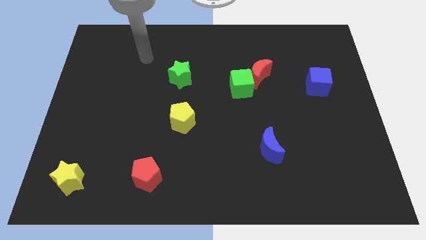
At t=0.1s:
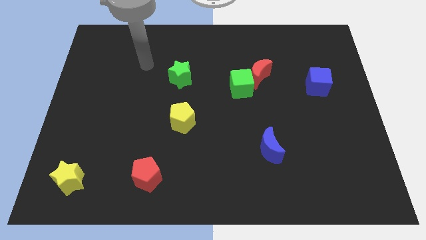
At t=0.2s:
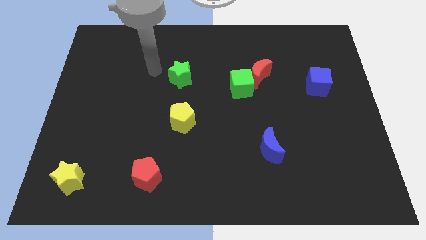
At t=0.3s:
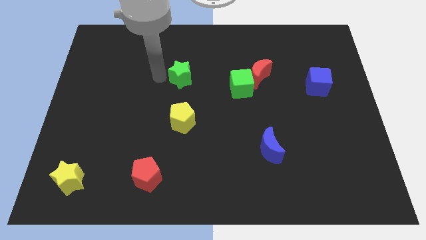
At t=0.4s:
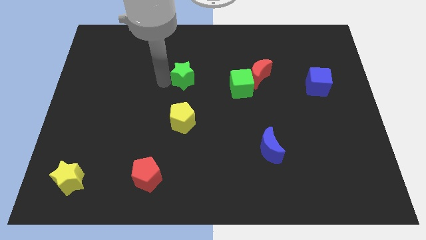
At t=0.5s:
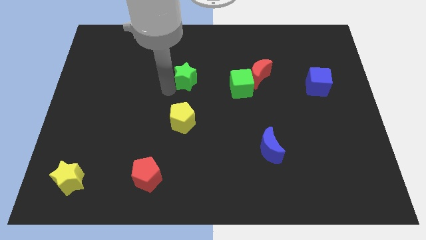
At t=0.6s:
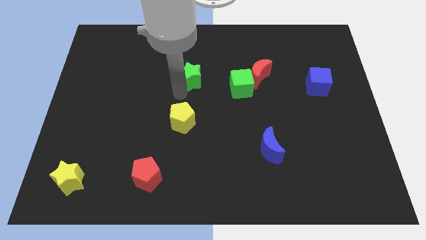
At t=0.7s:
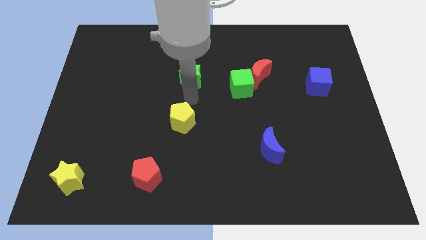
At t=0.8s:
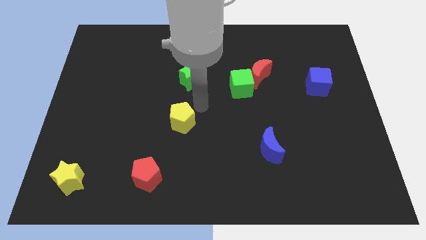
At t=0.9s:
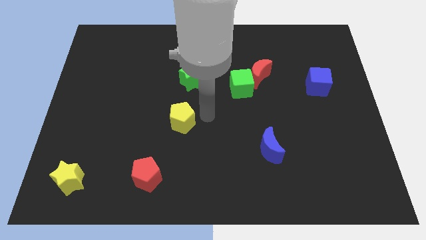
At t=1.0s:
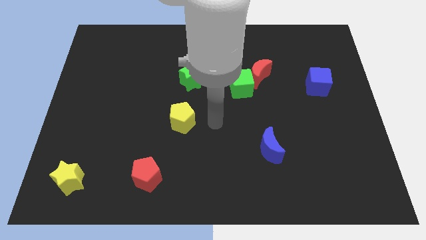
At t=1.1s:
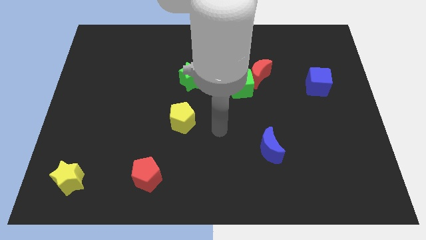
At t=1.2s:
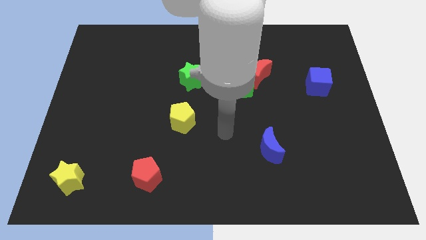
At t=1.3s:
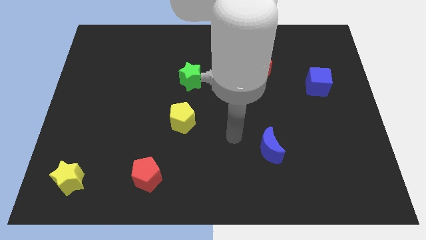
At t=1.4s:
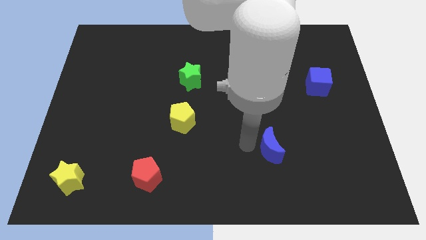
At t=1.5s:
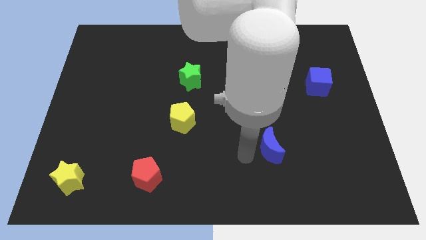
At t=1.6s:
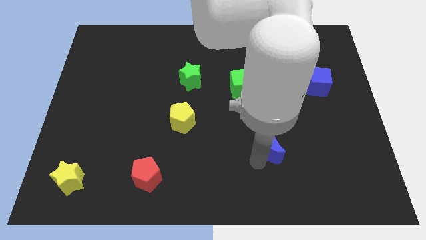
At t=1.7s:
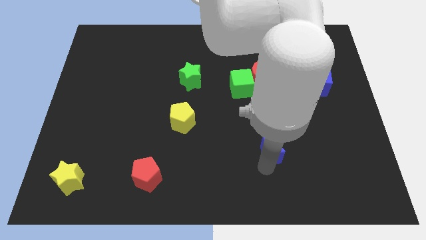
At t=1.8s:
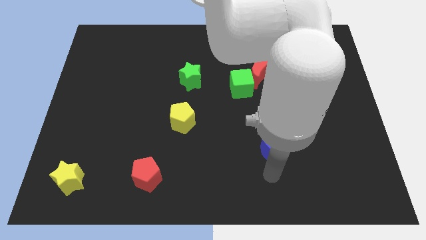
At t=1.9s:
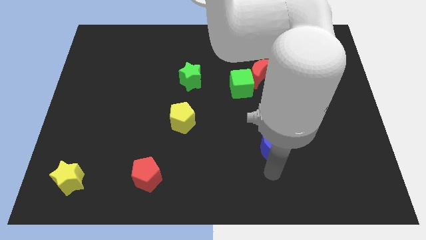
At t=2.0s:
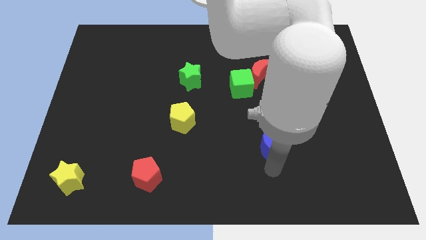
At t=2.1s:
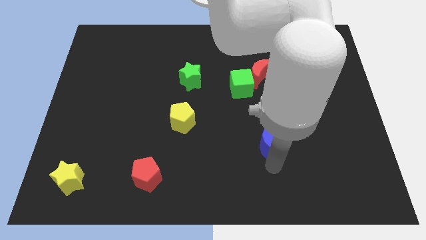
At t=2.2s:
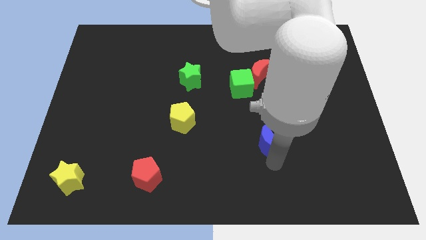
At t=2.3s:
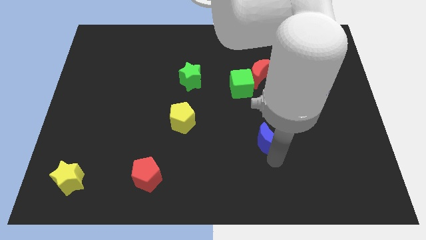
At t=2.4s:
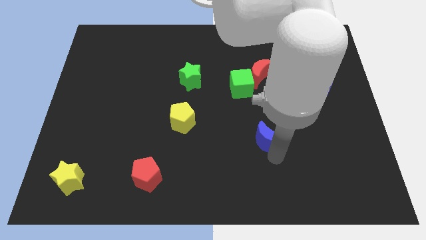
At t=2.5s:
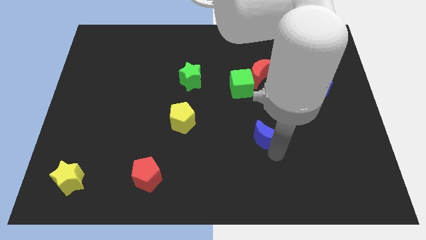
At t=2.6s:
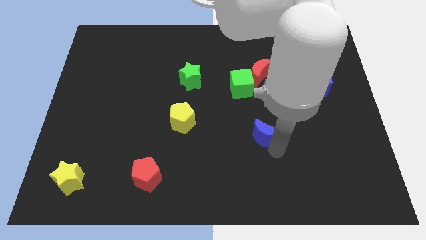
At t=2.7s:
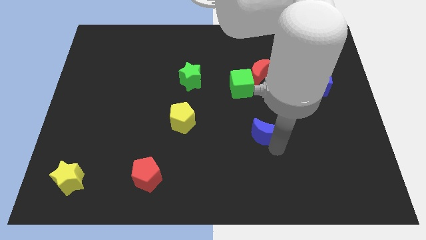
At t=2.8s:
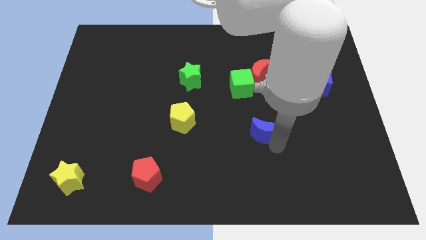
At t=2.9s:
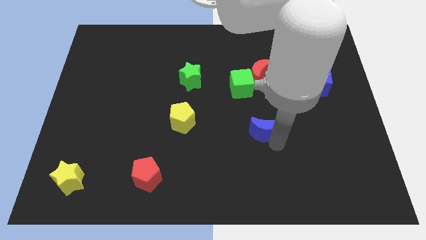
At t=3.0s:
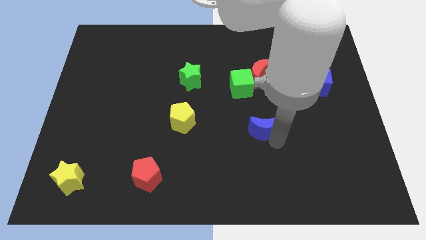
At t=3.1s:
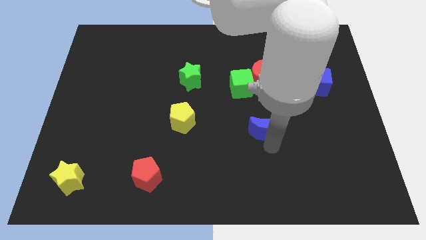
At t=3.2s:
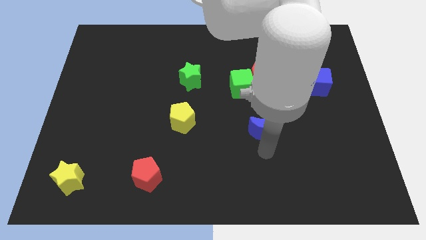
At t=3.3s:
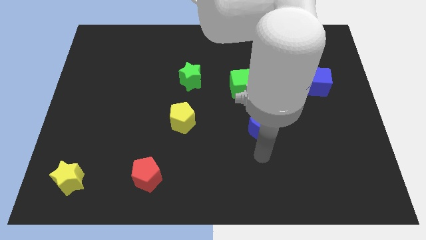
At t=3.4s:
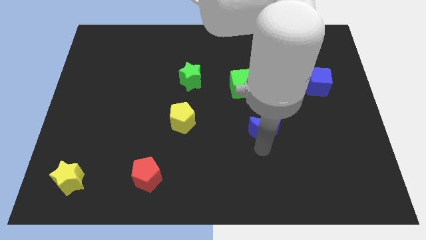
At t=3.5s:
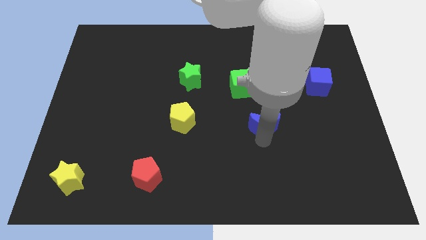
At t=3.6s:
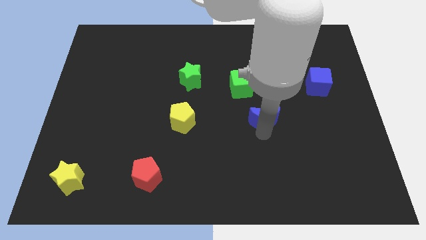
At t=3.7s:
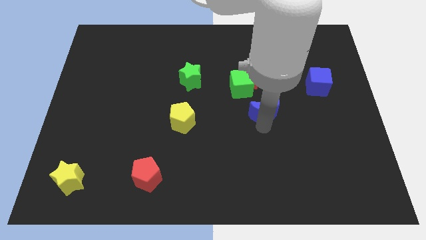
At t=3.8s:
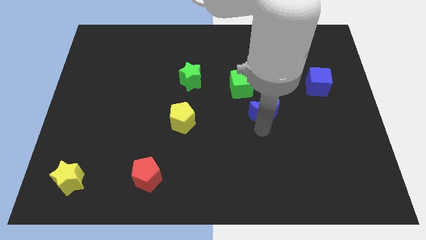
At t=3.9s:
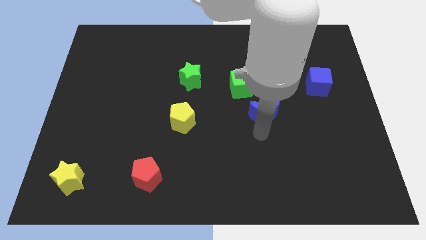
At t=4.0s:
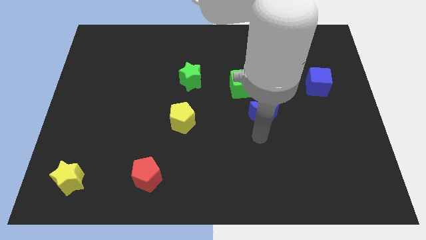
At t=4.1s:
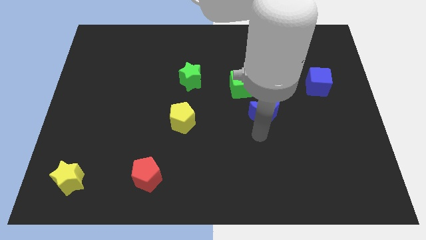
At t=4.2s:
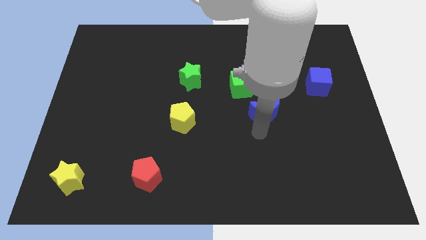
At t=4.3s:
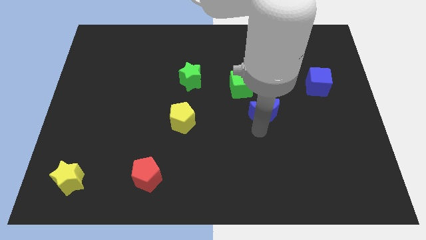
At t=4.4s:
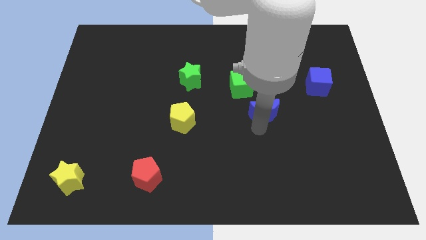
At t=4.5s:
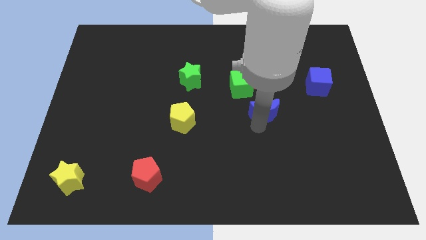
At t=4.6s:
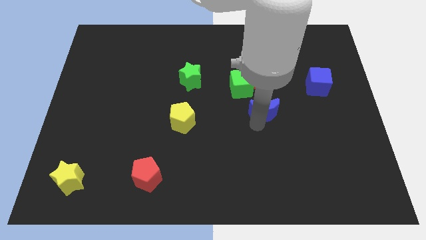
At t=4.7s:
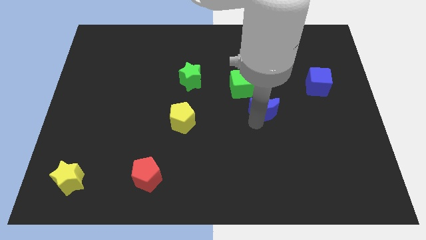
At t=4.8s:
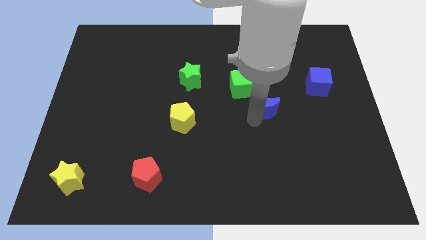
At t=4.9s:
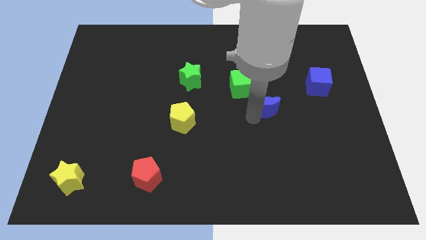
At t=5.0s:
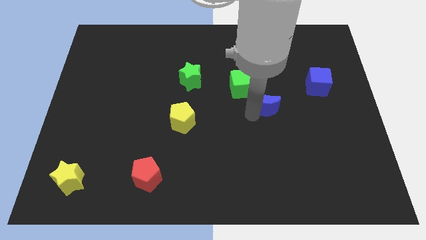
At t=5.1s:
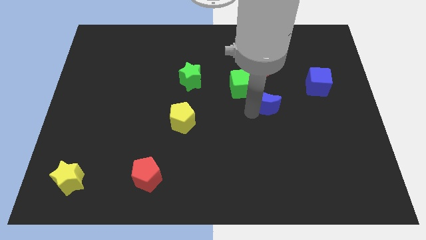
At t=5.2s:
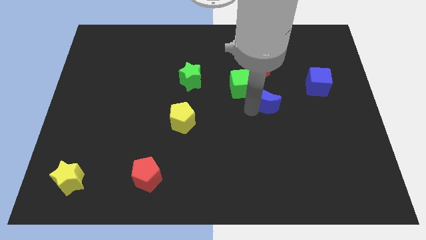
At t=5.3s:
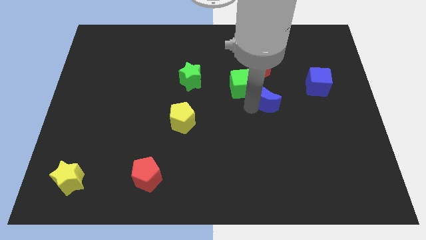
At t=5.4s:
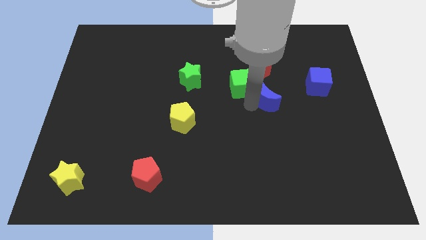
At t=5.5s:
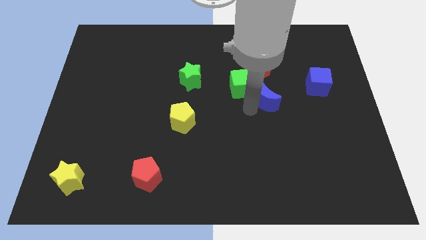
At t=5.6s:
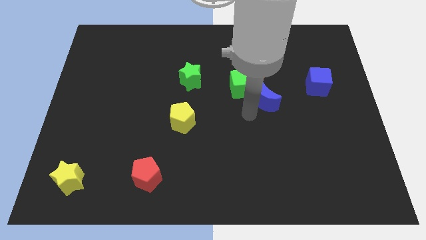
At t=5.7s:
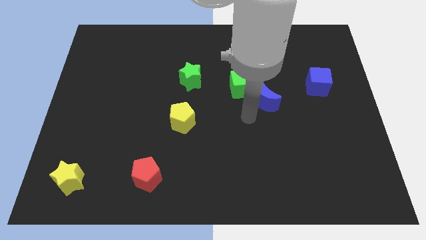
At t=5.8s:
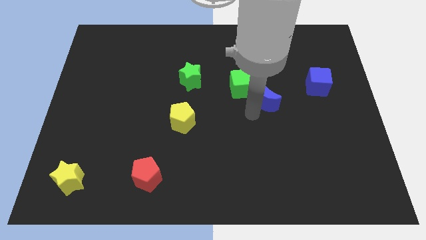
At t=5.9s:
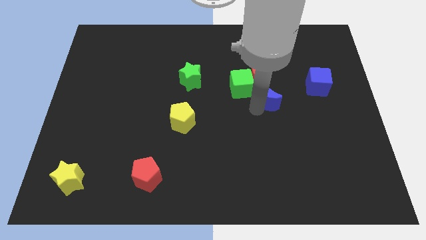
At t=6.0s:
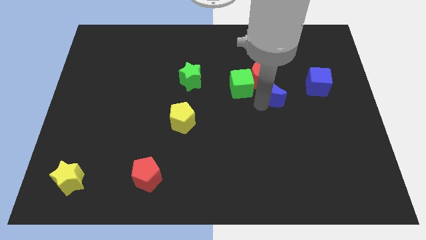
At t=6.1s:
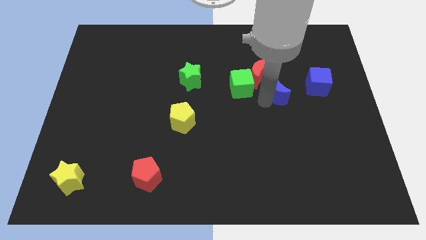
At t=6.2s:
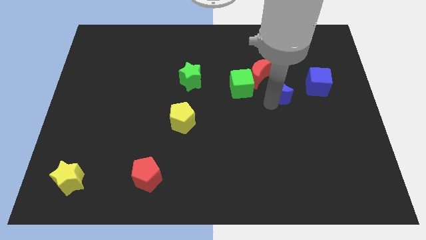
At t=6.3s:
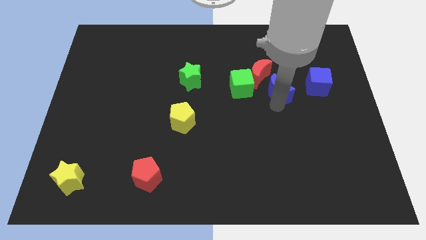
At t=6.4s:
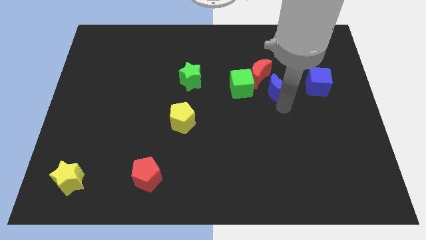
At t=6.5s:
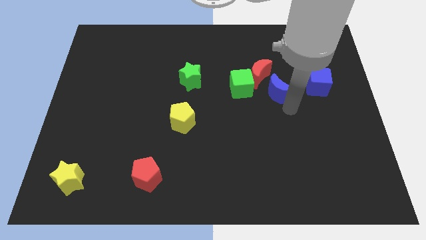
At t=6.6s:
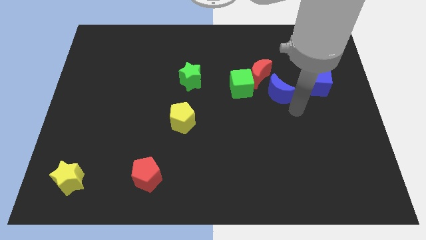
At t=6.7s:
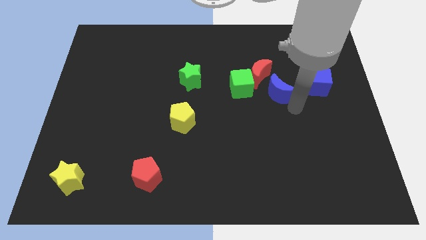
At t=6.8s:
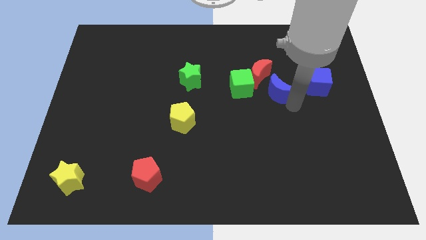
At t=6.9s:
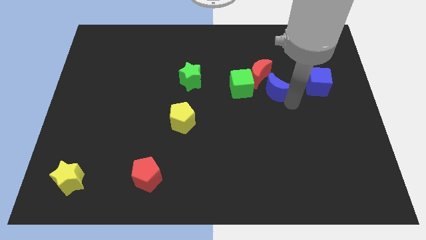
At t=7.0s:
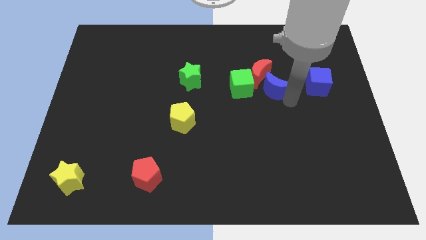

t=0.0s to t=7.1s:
slide the blue moon to the red moon
